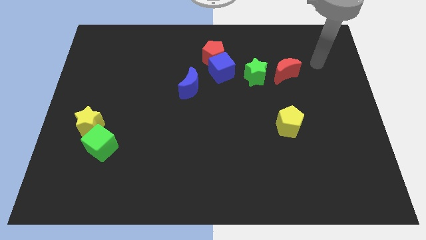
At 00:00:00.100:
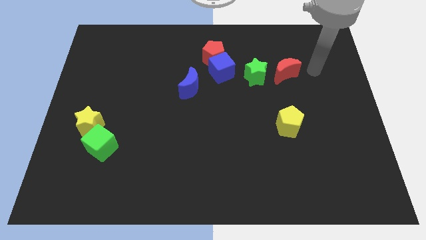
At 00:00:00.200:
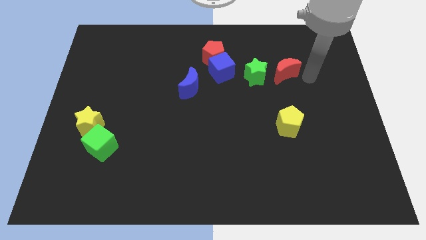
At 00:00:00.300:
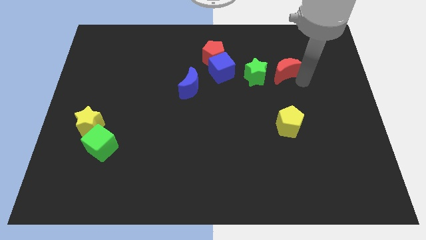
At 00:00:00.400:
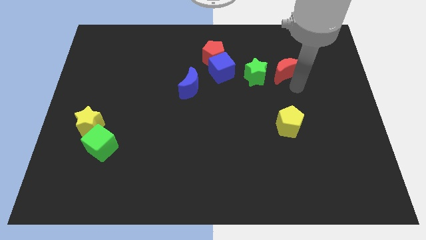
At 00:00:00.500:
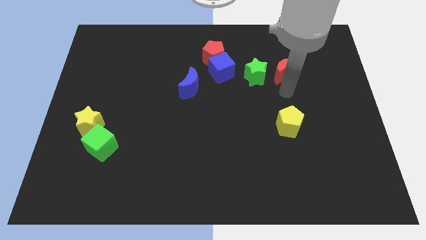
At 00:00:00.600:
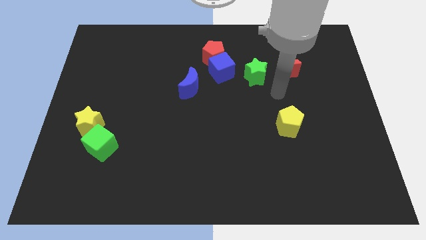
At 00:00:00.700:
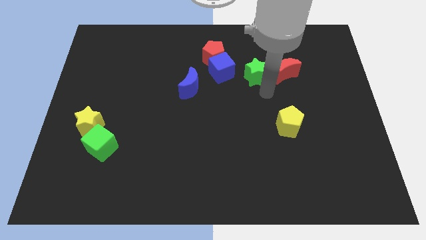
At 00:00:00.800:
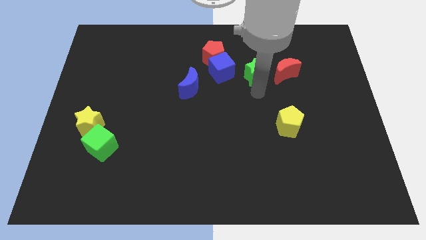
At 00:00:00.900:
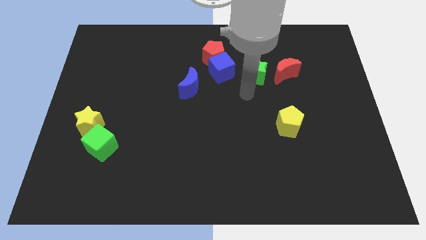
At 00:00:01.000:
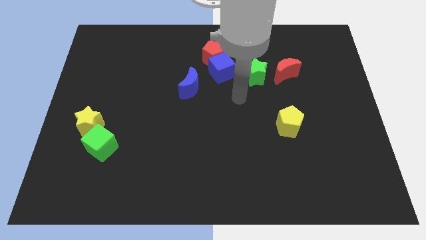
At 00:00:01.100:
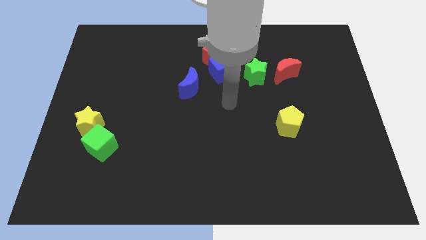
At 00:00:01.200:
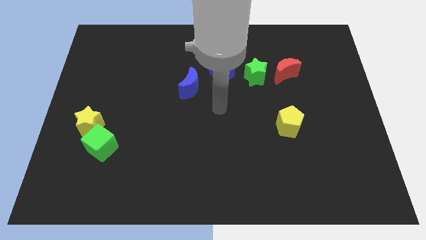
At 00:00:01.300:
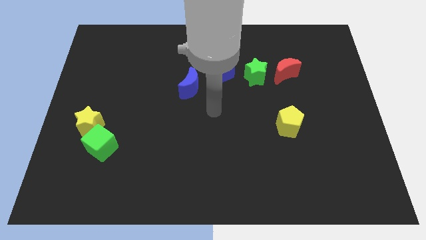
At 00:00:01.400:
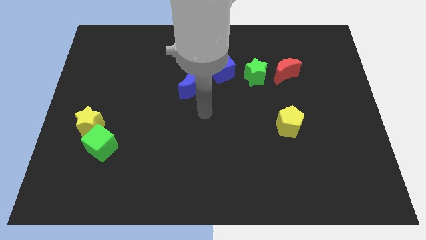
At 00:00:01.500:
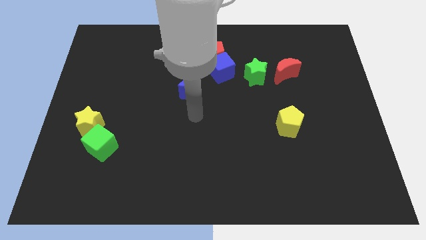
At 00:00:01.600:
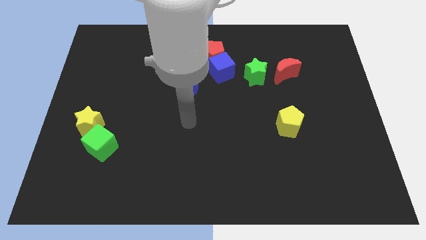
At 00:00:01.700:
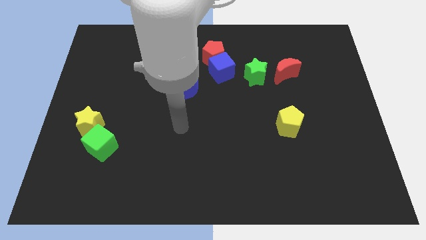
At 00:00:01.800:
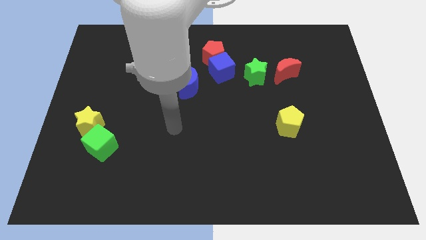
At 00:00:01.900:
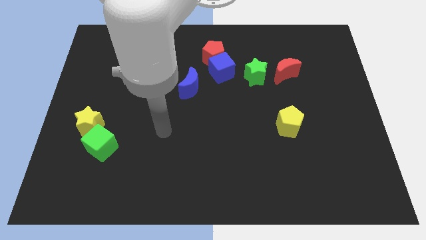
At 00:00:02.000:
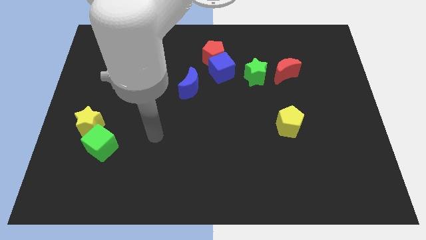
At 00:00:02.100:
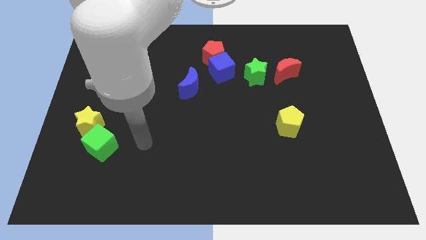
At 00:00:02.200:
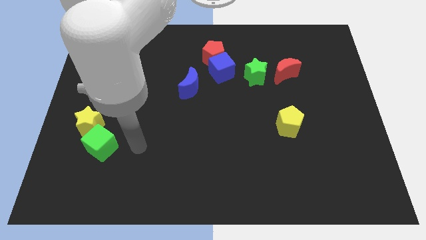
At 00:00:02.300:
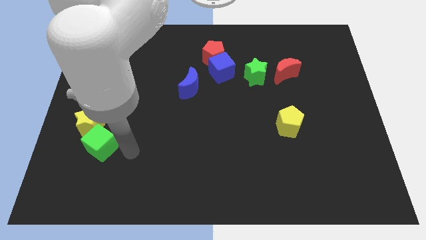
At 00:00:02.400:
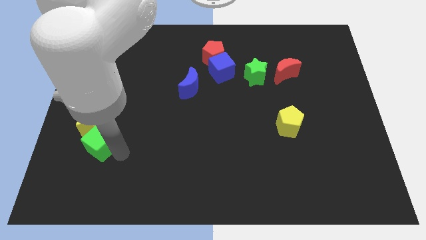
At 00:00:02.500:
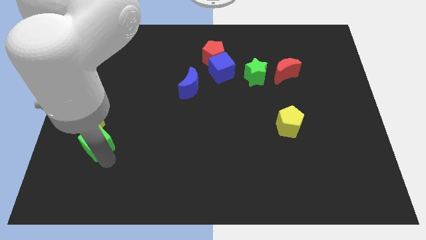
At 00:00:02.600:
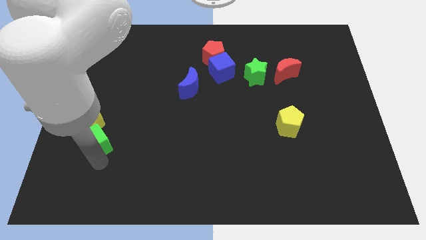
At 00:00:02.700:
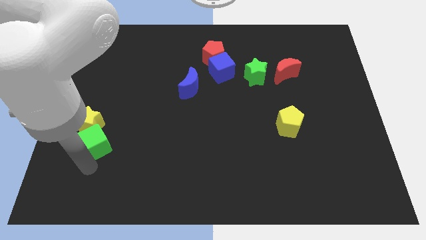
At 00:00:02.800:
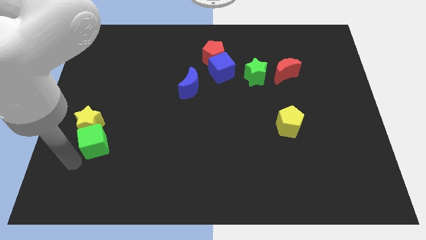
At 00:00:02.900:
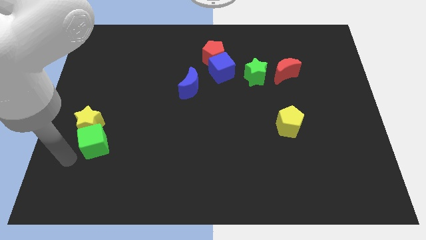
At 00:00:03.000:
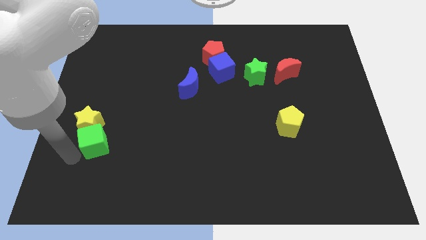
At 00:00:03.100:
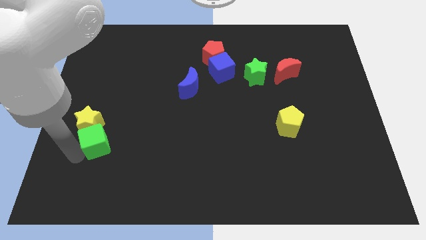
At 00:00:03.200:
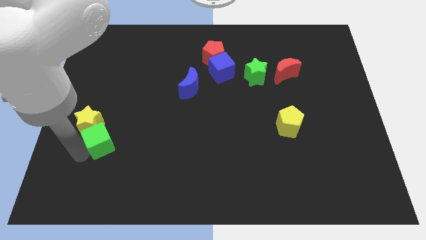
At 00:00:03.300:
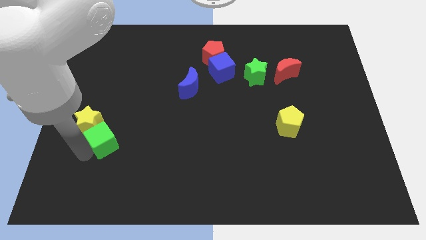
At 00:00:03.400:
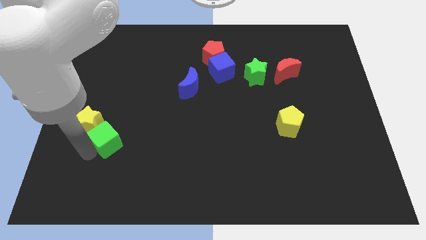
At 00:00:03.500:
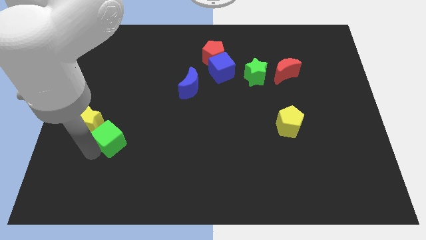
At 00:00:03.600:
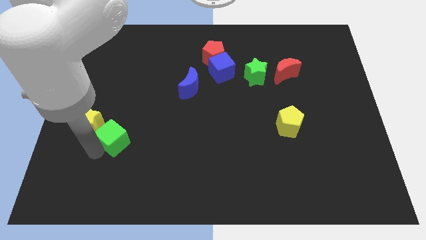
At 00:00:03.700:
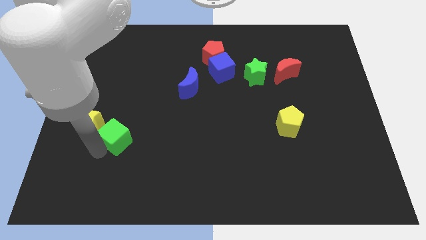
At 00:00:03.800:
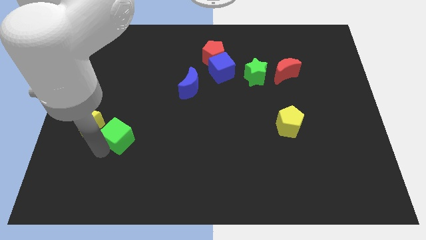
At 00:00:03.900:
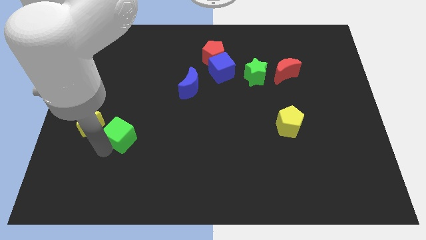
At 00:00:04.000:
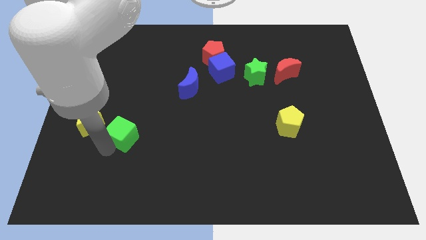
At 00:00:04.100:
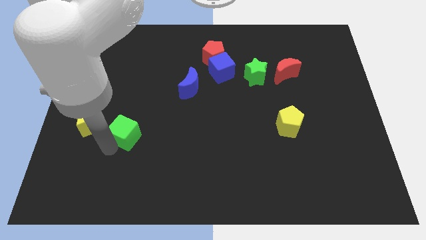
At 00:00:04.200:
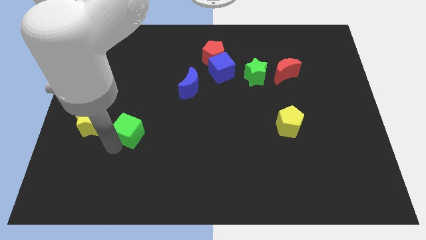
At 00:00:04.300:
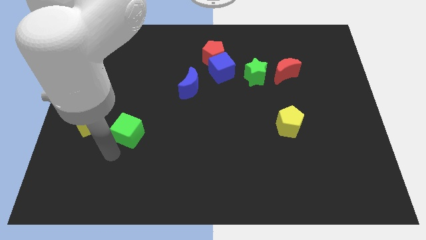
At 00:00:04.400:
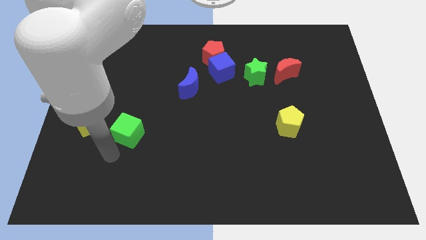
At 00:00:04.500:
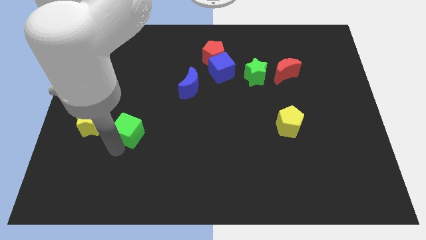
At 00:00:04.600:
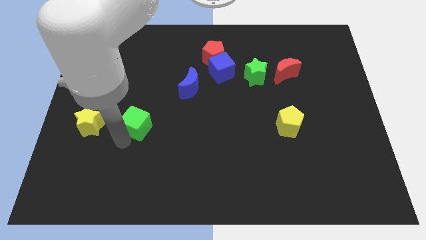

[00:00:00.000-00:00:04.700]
push the green cube slightly up and right diagonally

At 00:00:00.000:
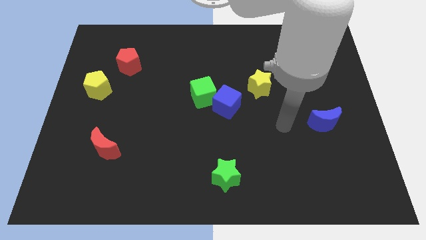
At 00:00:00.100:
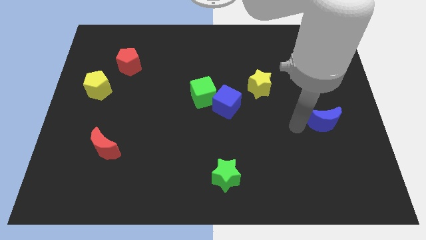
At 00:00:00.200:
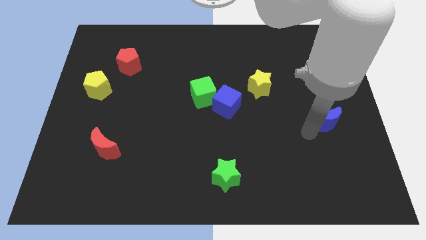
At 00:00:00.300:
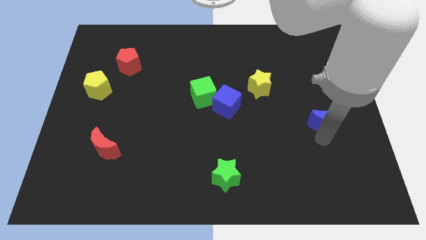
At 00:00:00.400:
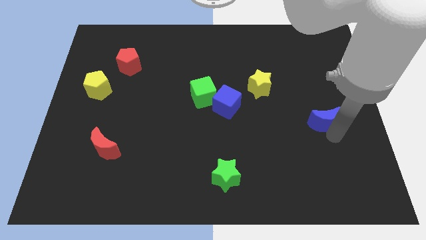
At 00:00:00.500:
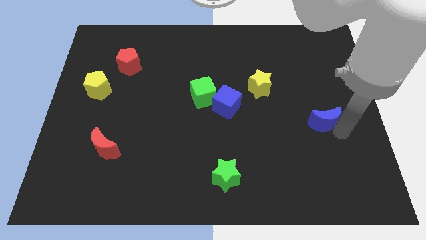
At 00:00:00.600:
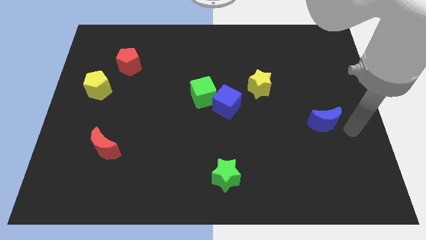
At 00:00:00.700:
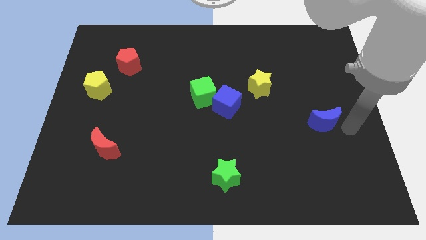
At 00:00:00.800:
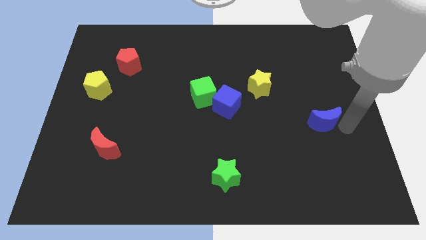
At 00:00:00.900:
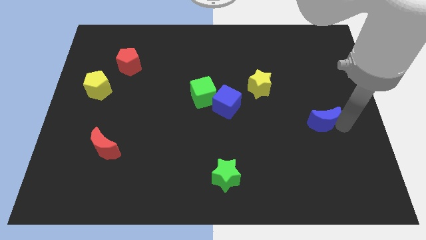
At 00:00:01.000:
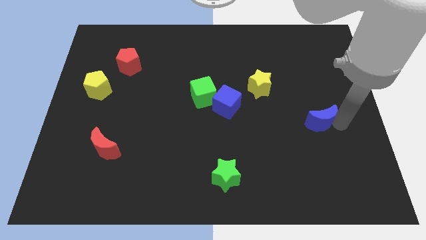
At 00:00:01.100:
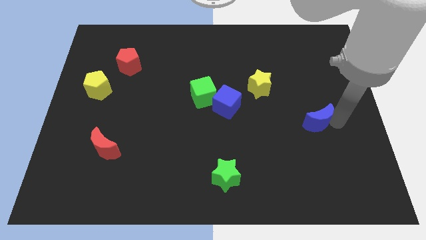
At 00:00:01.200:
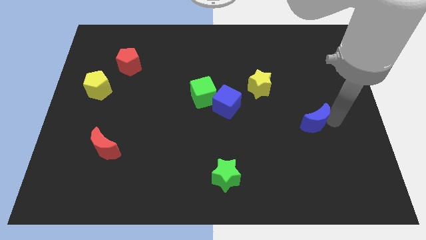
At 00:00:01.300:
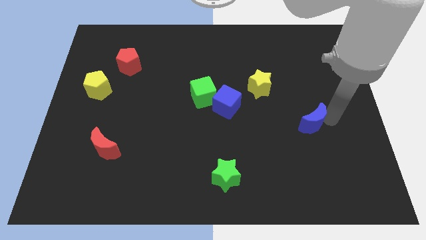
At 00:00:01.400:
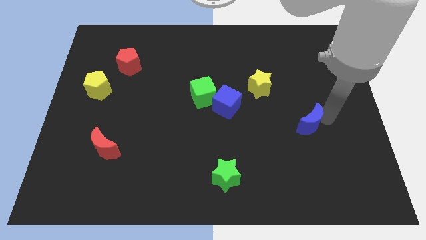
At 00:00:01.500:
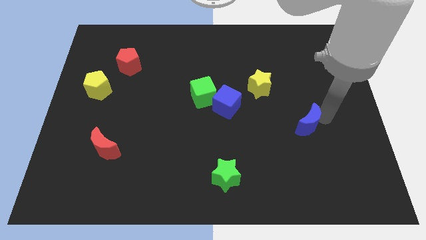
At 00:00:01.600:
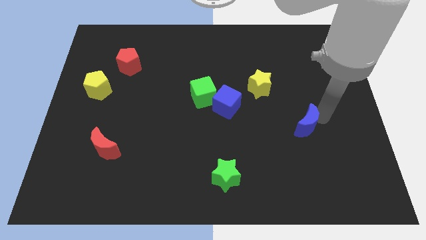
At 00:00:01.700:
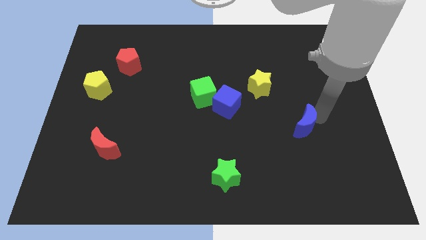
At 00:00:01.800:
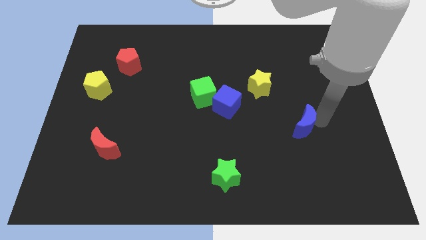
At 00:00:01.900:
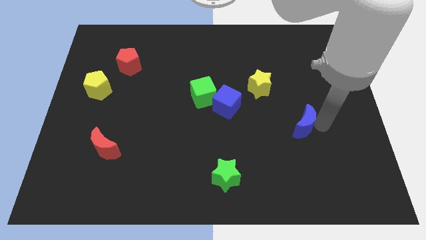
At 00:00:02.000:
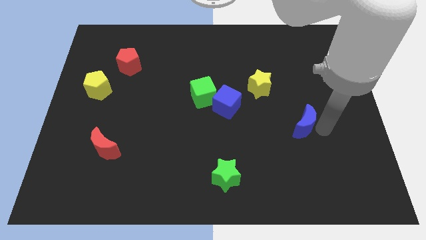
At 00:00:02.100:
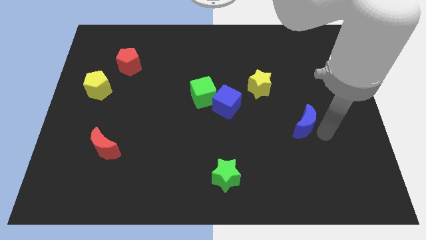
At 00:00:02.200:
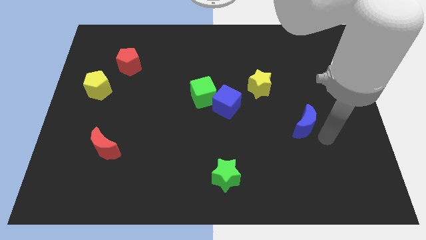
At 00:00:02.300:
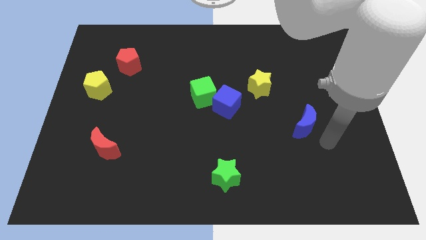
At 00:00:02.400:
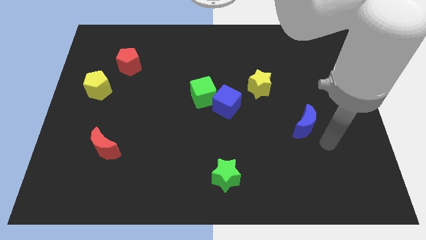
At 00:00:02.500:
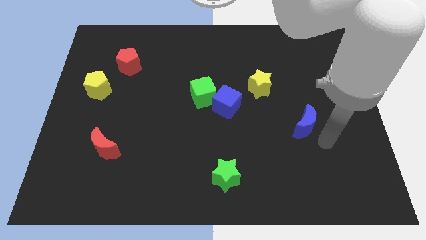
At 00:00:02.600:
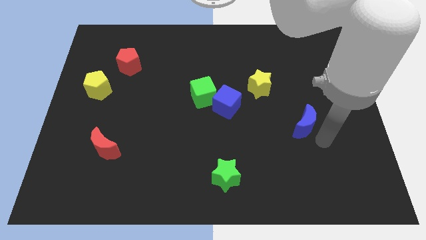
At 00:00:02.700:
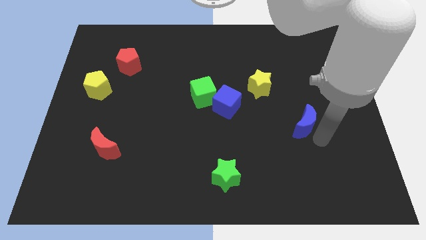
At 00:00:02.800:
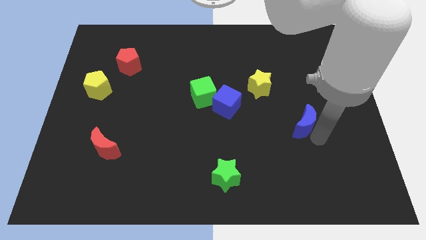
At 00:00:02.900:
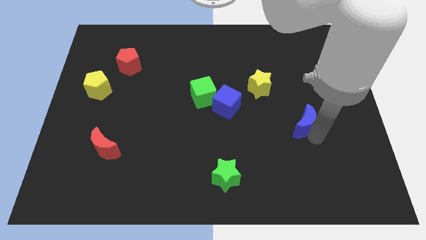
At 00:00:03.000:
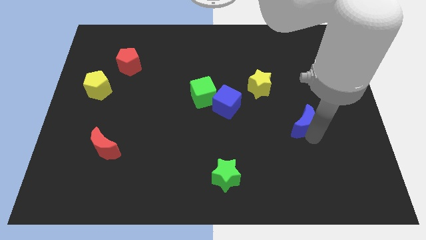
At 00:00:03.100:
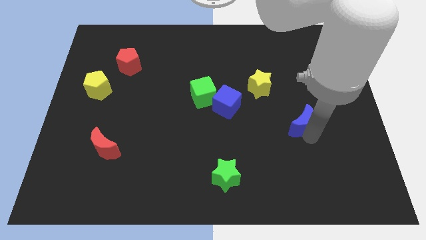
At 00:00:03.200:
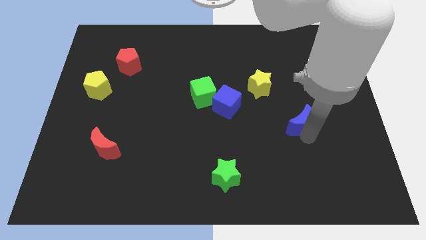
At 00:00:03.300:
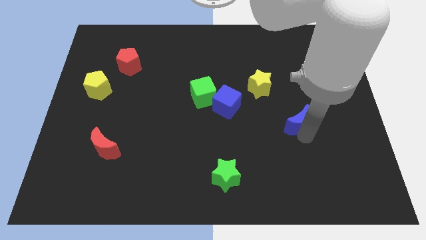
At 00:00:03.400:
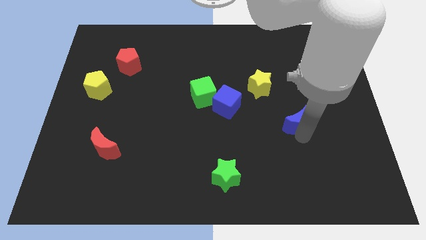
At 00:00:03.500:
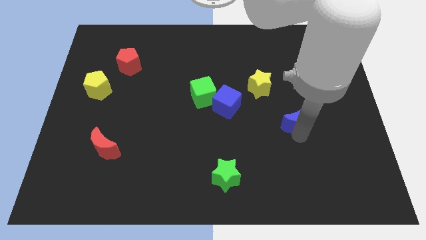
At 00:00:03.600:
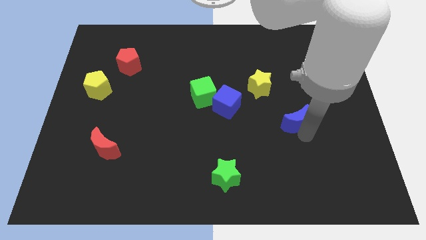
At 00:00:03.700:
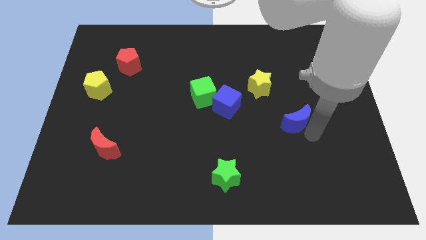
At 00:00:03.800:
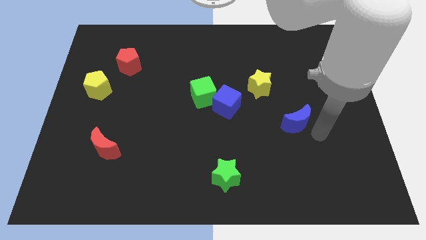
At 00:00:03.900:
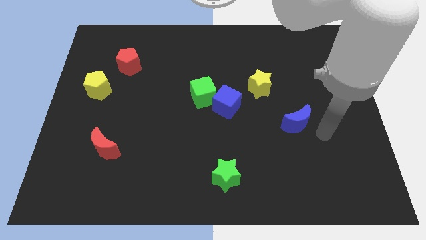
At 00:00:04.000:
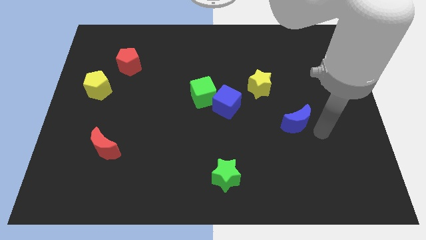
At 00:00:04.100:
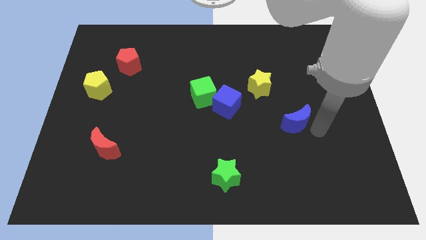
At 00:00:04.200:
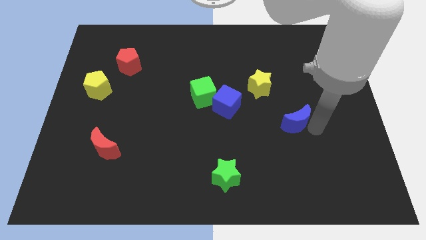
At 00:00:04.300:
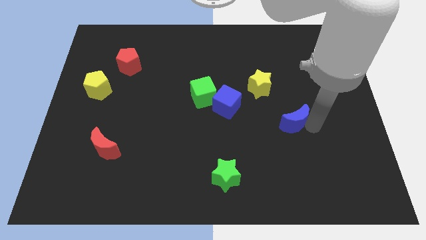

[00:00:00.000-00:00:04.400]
slightly slide the blue moon to the left
